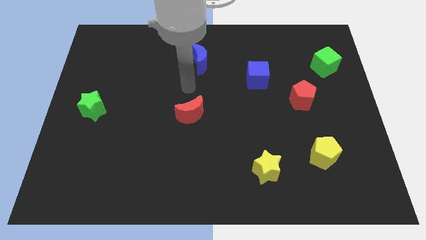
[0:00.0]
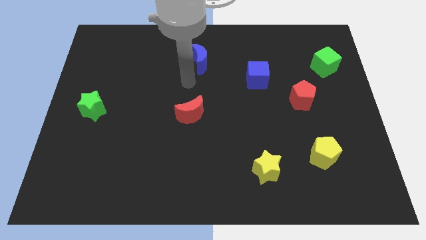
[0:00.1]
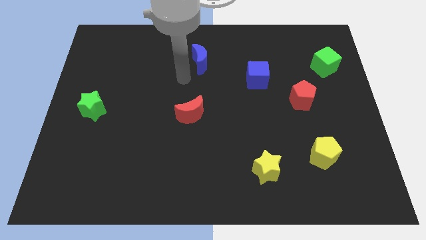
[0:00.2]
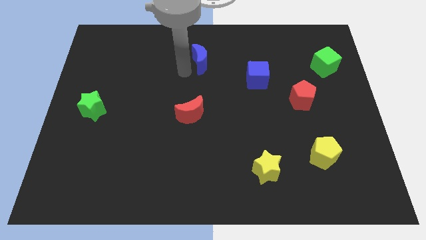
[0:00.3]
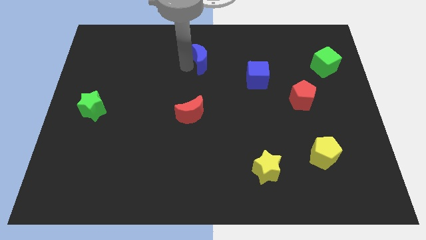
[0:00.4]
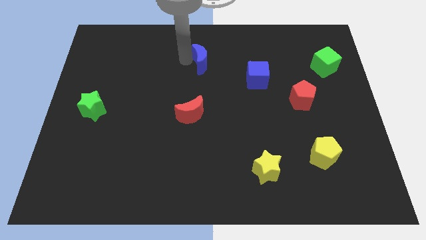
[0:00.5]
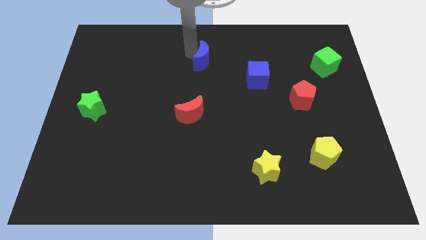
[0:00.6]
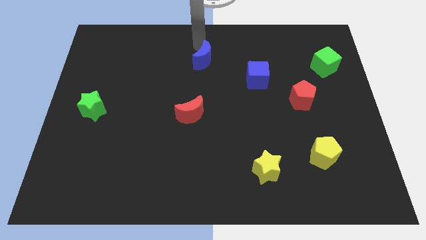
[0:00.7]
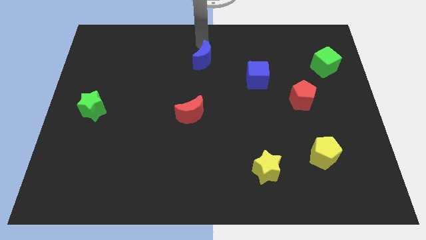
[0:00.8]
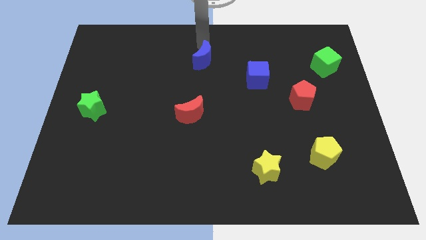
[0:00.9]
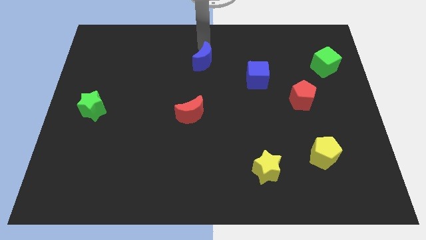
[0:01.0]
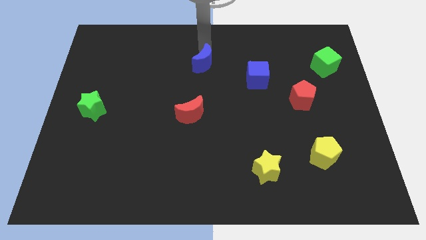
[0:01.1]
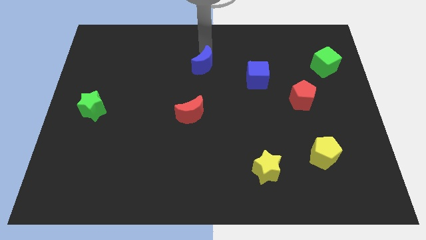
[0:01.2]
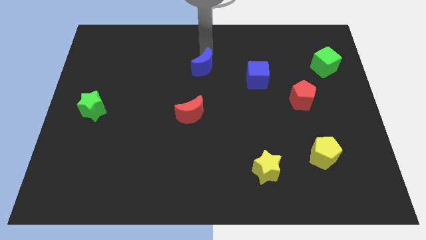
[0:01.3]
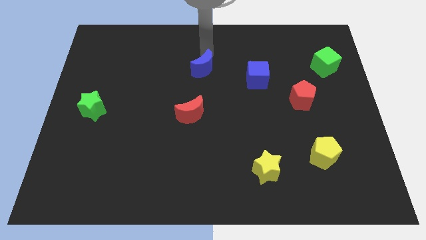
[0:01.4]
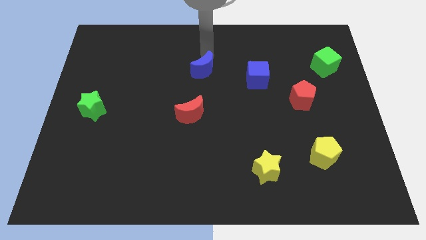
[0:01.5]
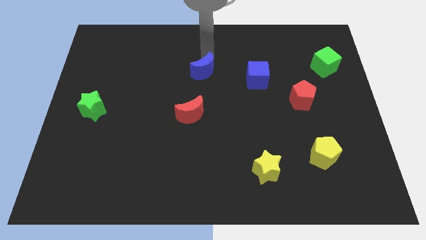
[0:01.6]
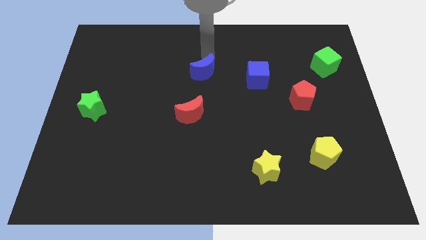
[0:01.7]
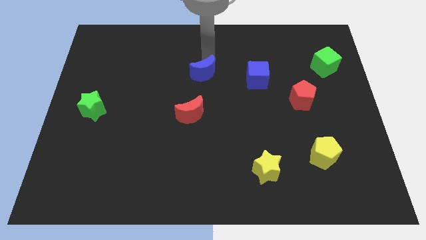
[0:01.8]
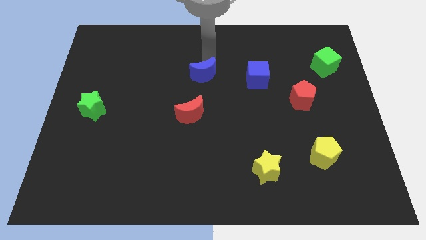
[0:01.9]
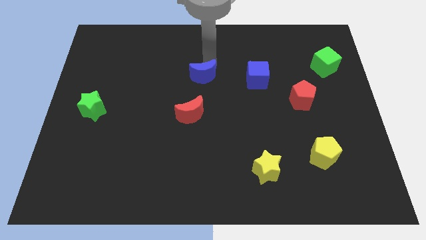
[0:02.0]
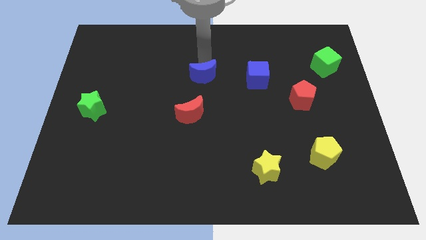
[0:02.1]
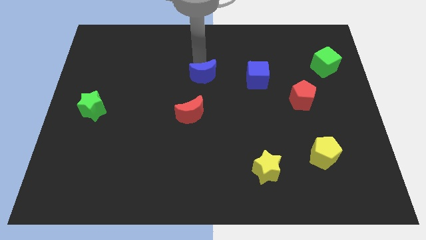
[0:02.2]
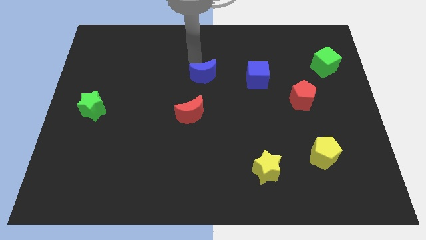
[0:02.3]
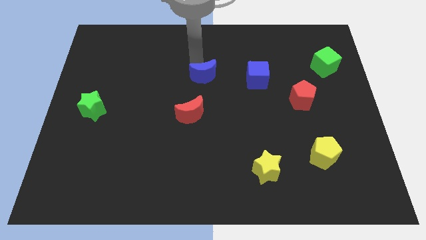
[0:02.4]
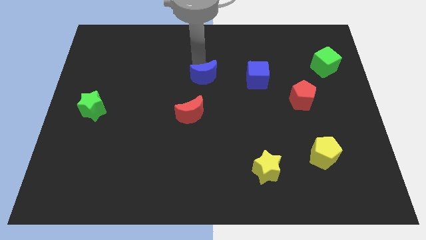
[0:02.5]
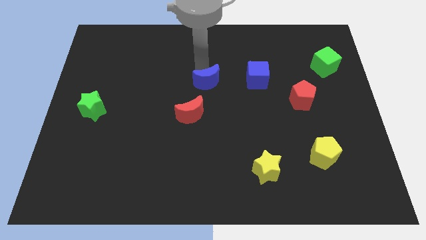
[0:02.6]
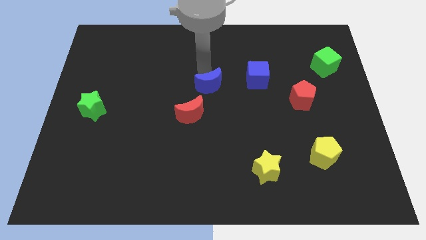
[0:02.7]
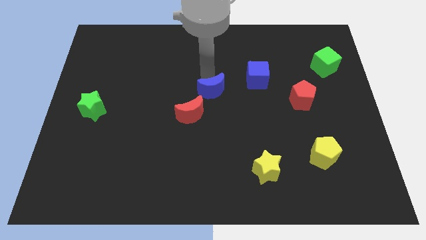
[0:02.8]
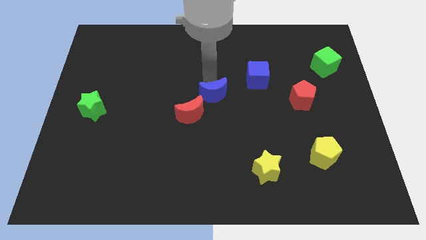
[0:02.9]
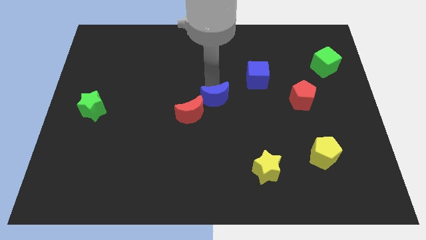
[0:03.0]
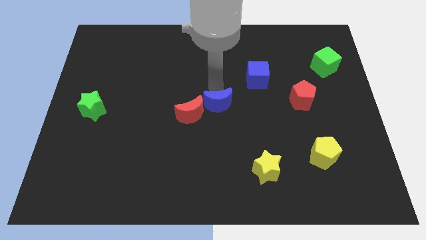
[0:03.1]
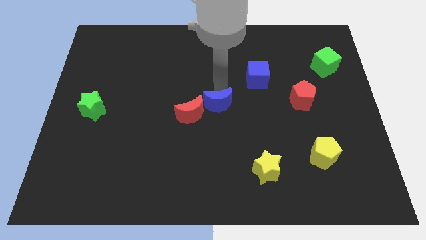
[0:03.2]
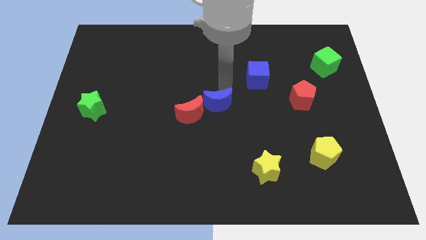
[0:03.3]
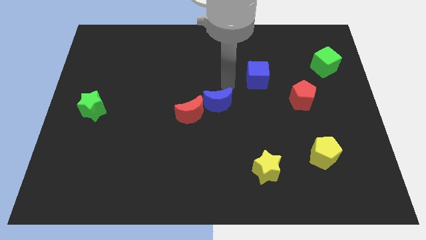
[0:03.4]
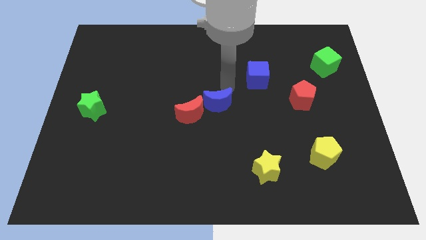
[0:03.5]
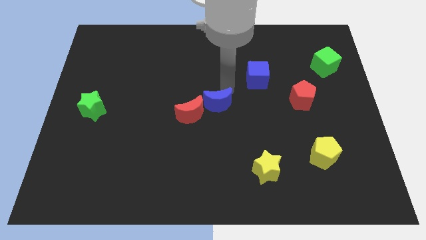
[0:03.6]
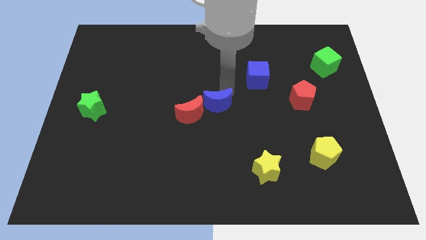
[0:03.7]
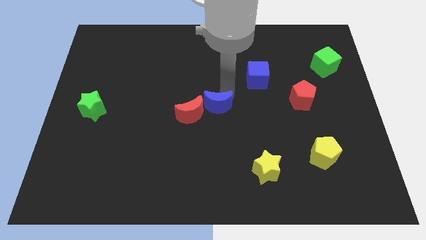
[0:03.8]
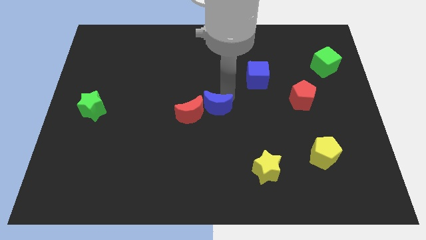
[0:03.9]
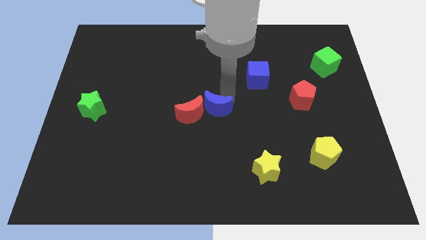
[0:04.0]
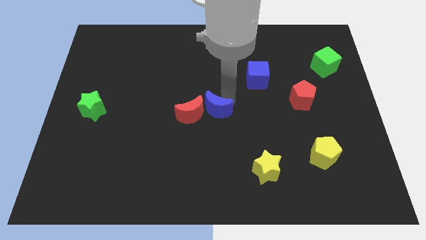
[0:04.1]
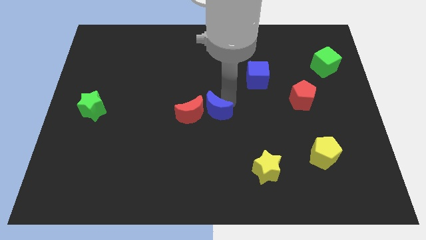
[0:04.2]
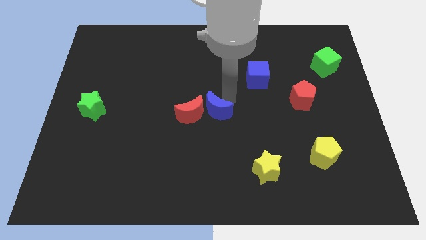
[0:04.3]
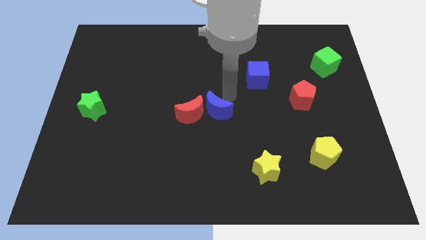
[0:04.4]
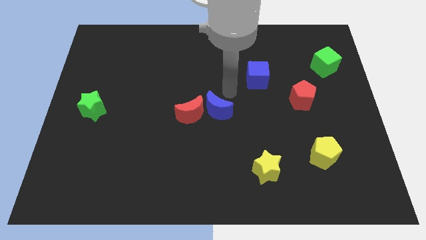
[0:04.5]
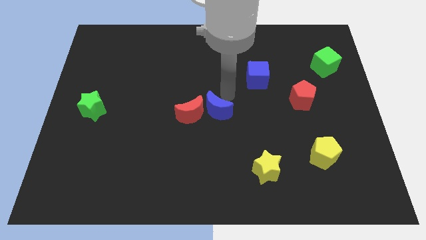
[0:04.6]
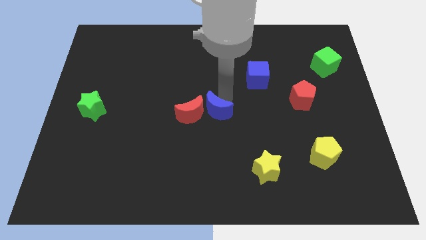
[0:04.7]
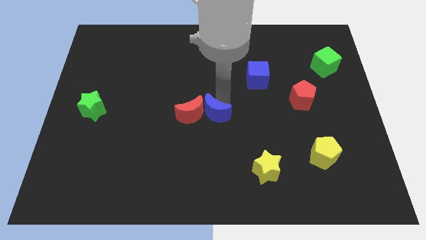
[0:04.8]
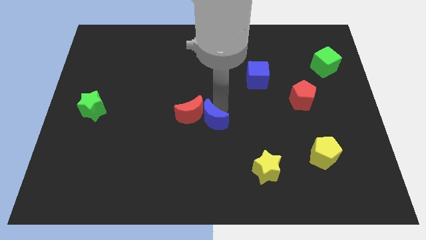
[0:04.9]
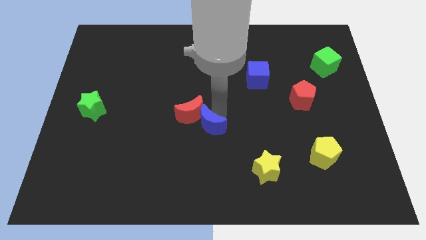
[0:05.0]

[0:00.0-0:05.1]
push the blue moon downwards

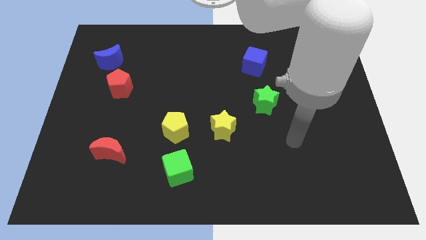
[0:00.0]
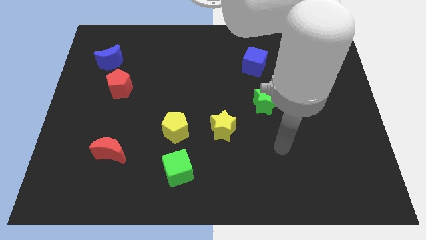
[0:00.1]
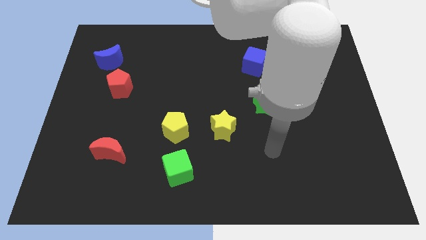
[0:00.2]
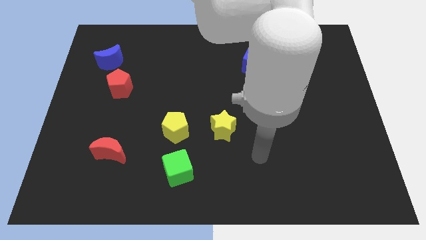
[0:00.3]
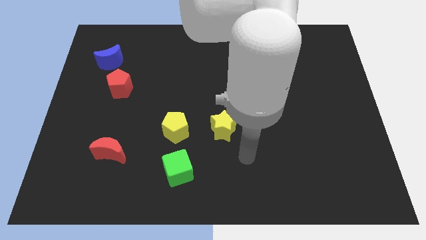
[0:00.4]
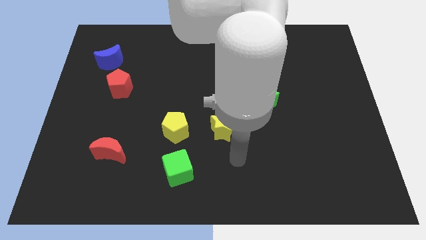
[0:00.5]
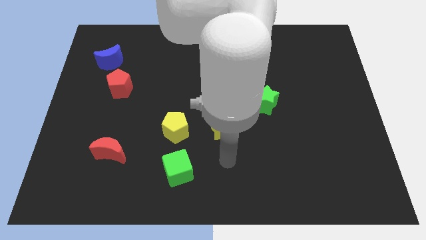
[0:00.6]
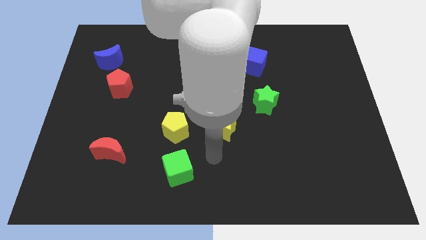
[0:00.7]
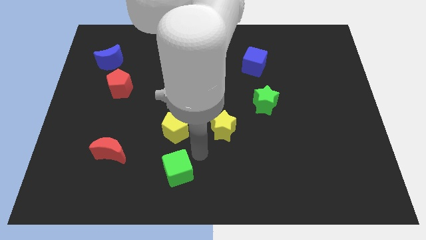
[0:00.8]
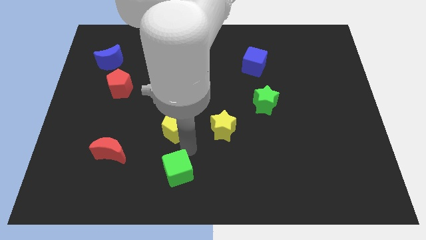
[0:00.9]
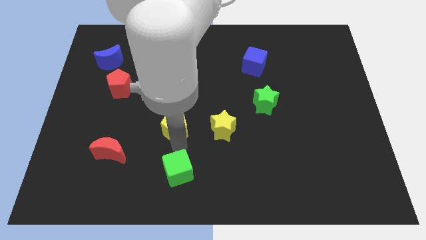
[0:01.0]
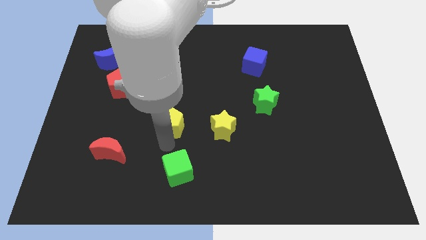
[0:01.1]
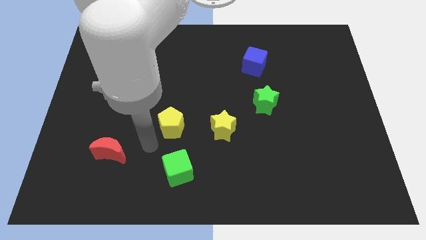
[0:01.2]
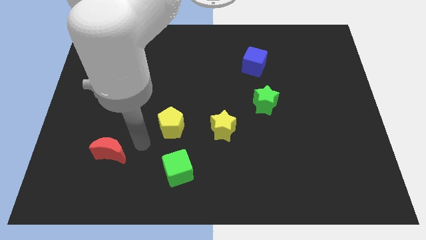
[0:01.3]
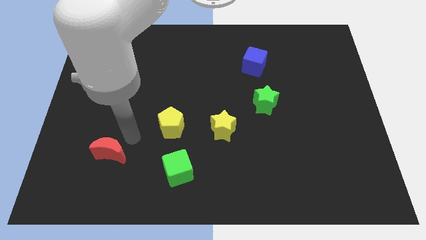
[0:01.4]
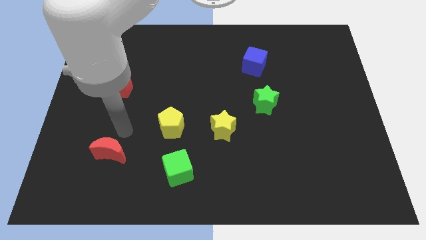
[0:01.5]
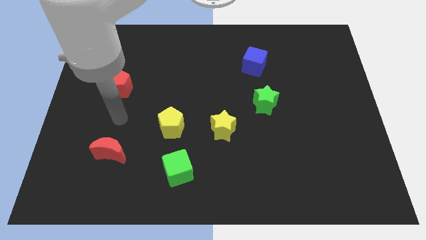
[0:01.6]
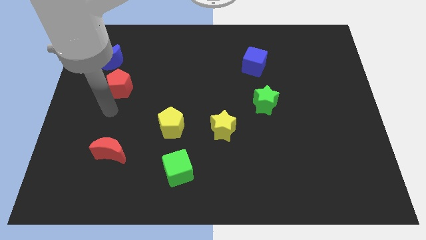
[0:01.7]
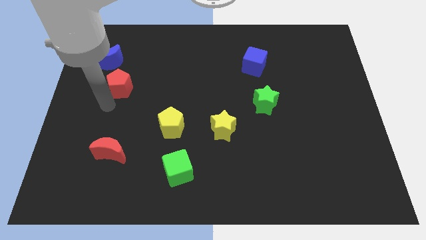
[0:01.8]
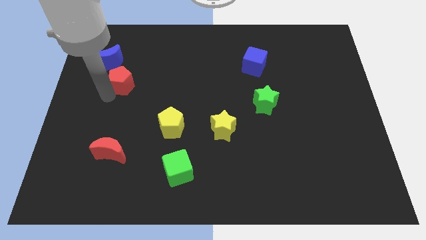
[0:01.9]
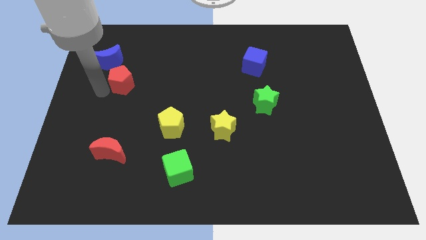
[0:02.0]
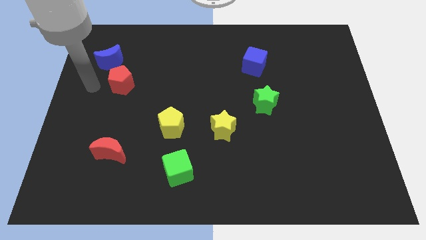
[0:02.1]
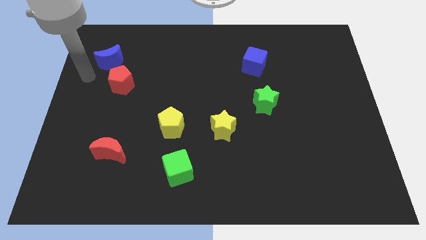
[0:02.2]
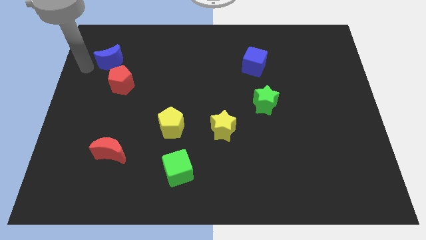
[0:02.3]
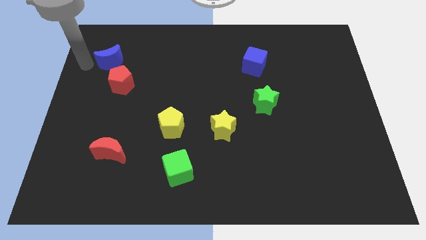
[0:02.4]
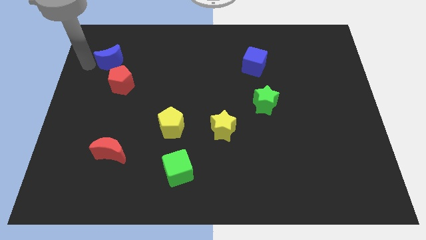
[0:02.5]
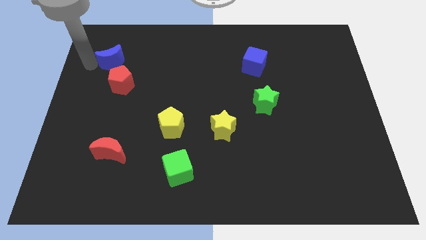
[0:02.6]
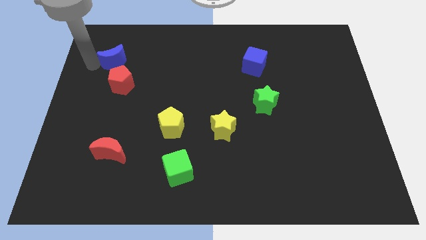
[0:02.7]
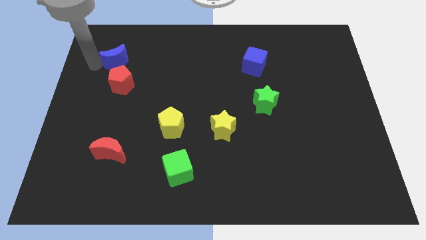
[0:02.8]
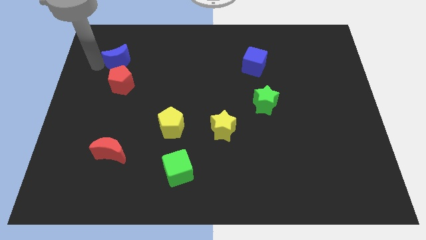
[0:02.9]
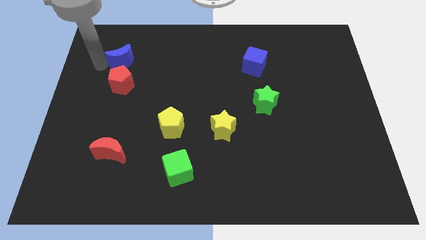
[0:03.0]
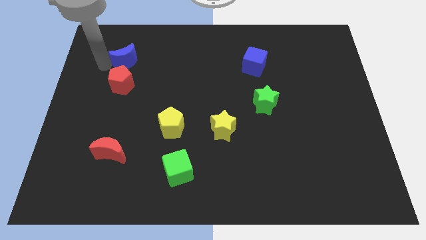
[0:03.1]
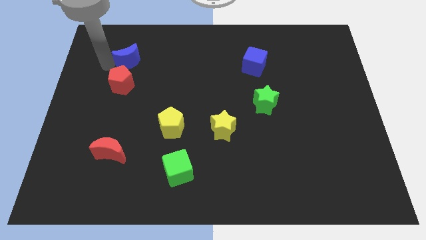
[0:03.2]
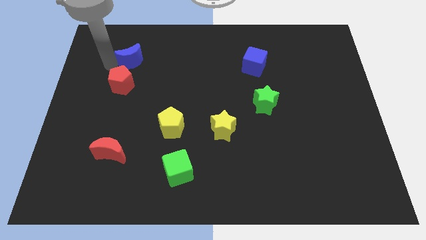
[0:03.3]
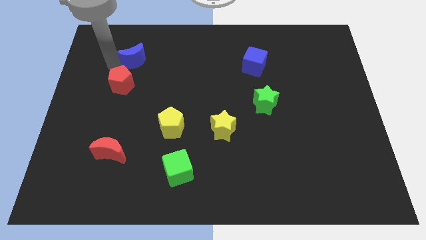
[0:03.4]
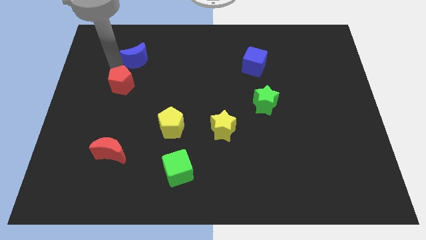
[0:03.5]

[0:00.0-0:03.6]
slightly push the blue moon right
